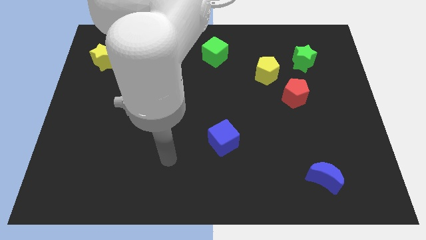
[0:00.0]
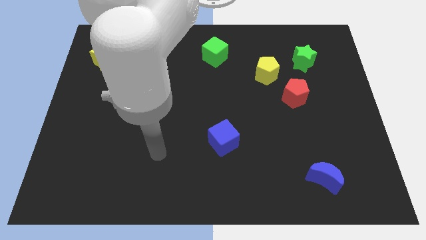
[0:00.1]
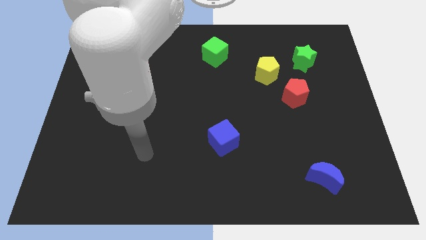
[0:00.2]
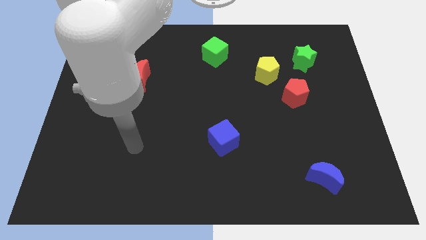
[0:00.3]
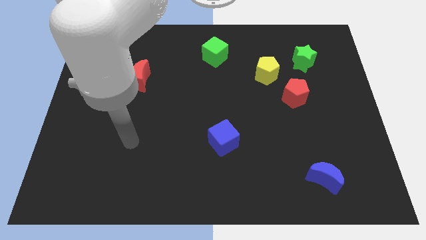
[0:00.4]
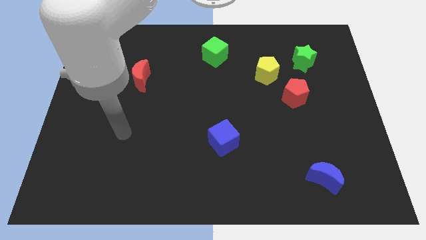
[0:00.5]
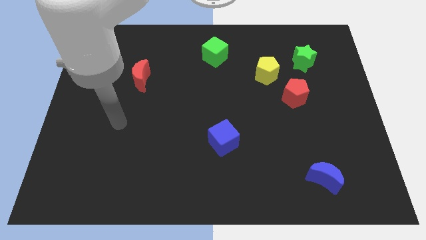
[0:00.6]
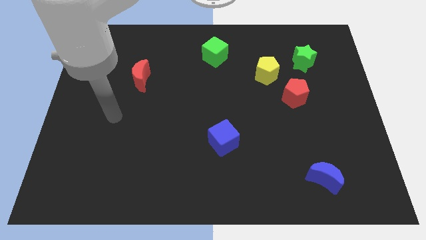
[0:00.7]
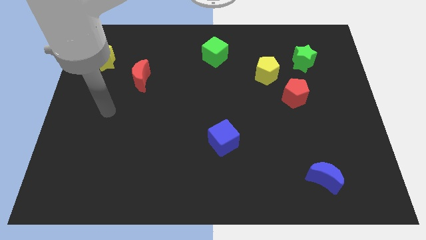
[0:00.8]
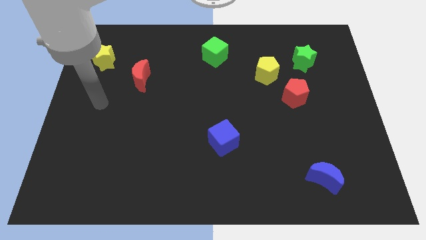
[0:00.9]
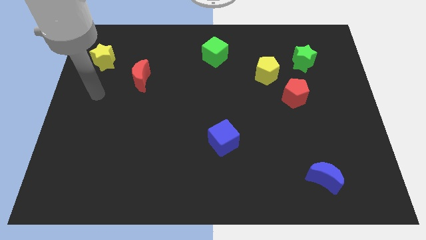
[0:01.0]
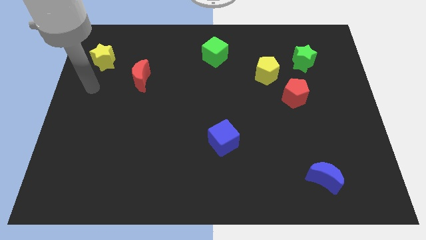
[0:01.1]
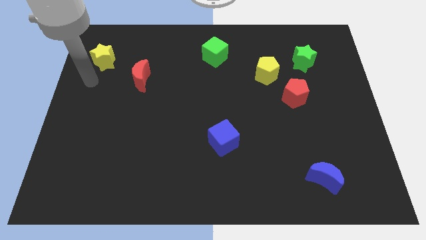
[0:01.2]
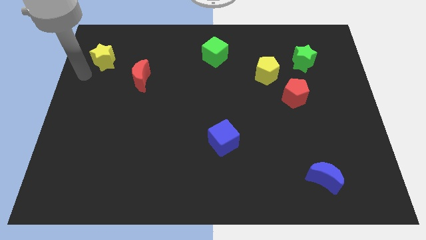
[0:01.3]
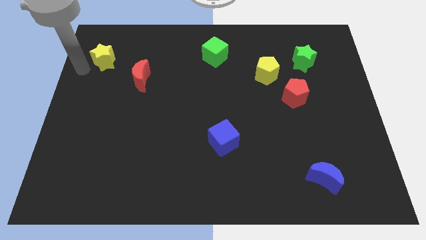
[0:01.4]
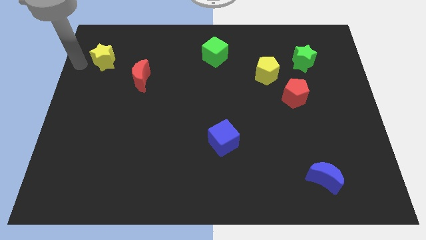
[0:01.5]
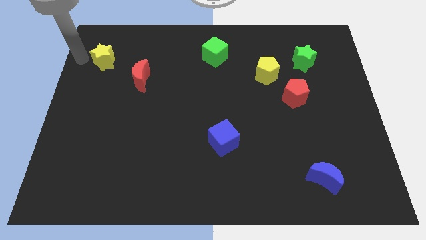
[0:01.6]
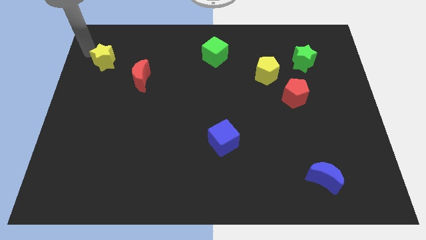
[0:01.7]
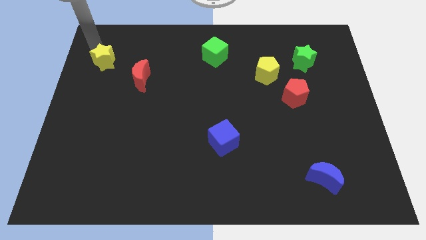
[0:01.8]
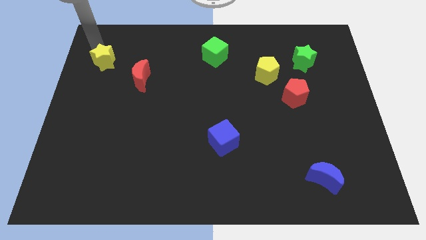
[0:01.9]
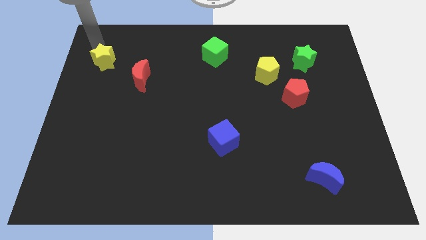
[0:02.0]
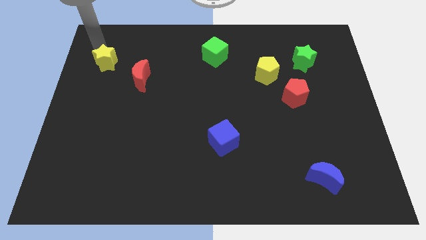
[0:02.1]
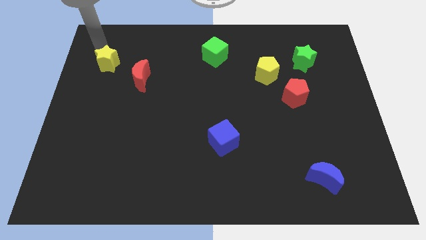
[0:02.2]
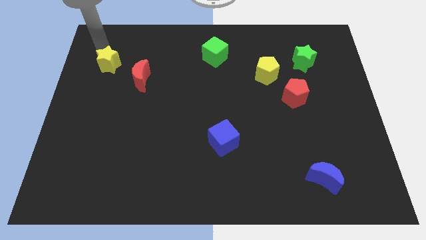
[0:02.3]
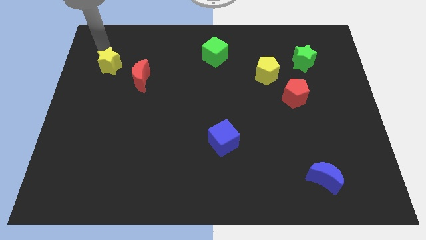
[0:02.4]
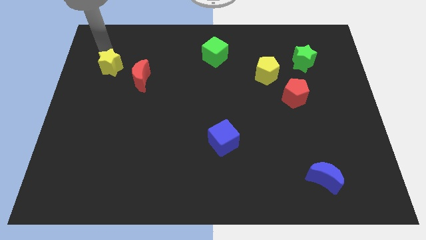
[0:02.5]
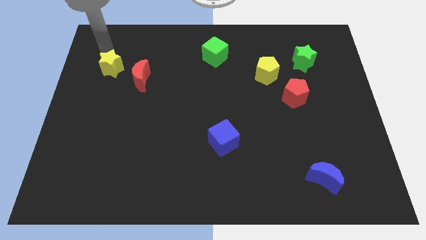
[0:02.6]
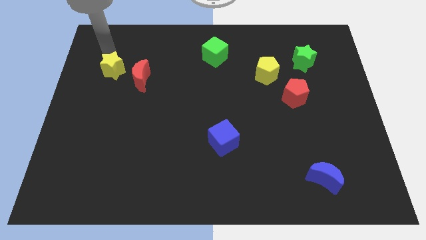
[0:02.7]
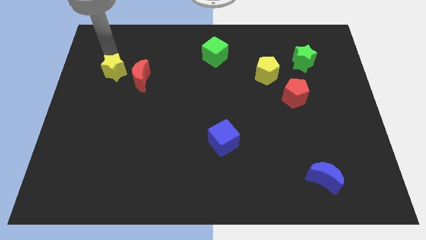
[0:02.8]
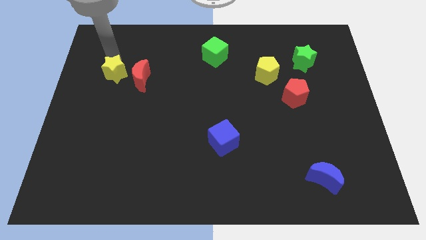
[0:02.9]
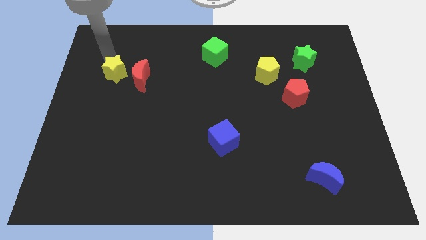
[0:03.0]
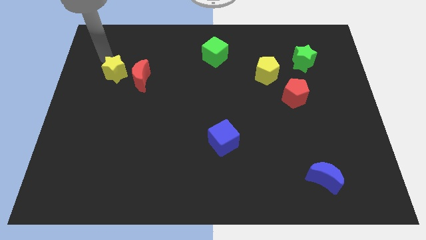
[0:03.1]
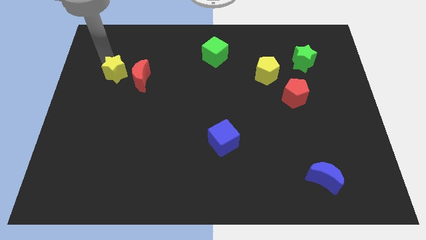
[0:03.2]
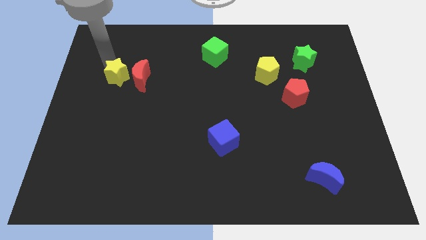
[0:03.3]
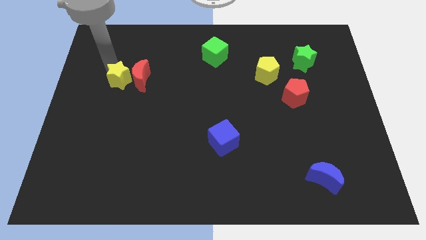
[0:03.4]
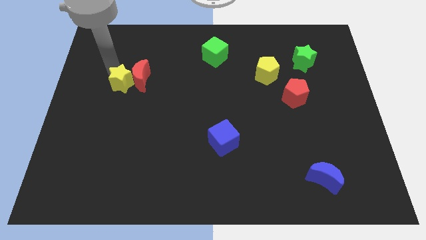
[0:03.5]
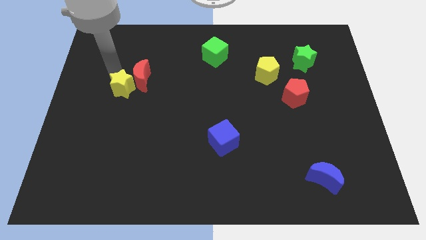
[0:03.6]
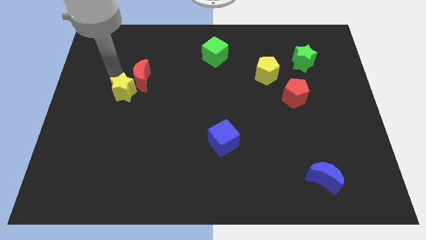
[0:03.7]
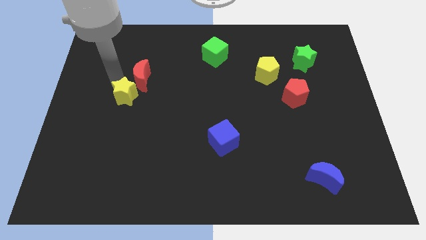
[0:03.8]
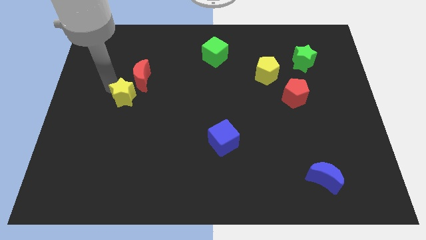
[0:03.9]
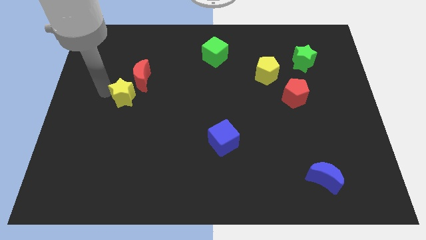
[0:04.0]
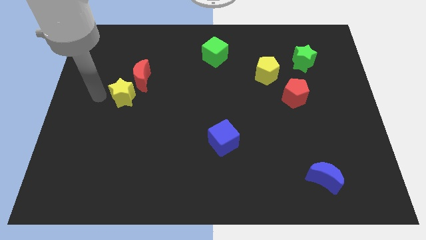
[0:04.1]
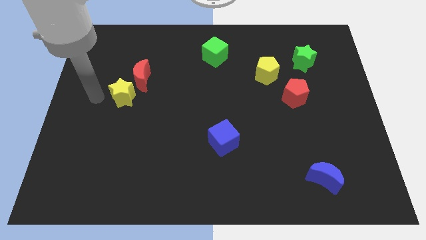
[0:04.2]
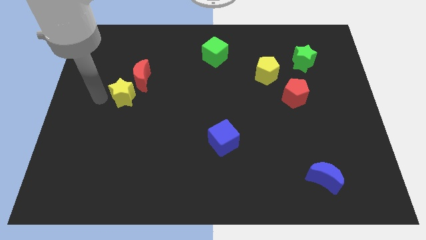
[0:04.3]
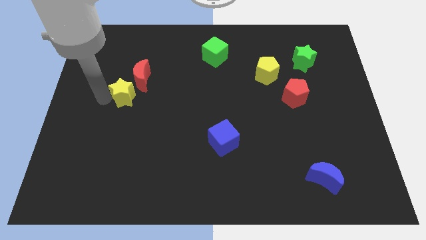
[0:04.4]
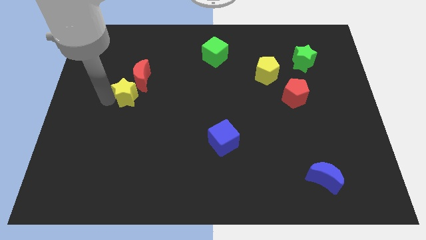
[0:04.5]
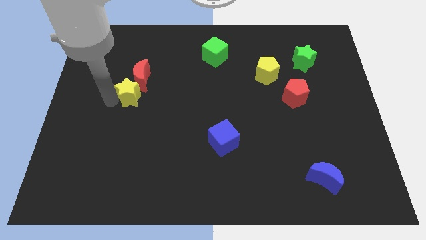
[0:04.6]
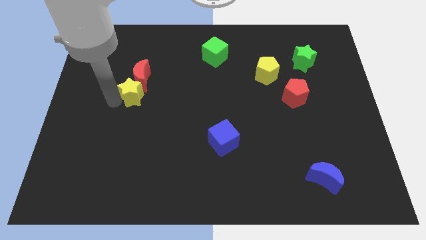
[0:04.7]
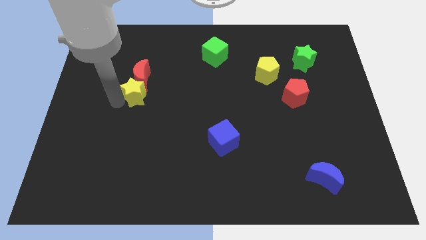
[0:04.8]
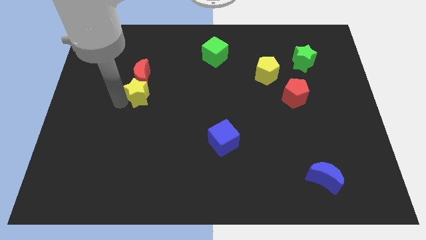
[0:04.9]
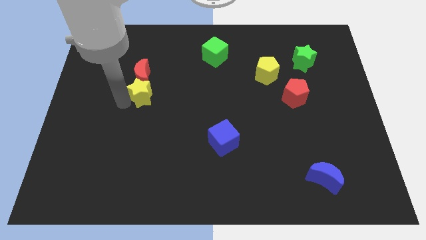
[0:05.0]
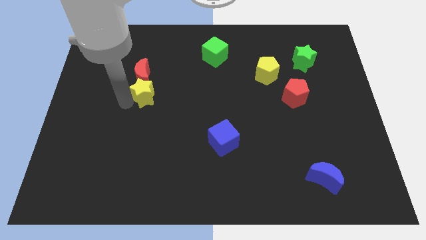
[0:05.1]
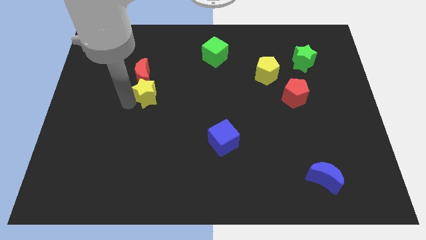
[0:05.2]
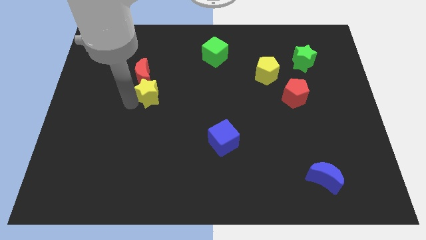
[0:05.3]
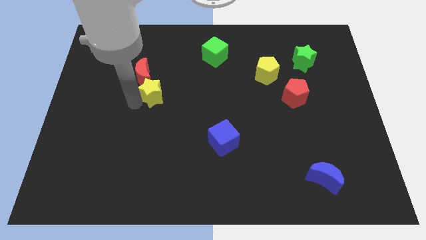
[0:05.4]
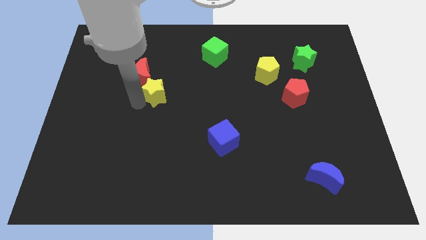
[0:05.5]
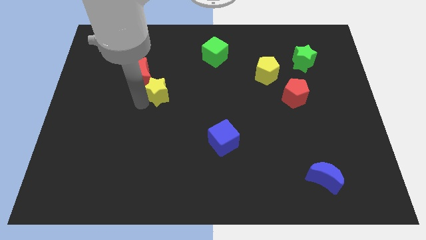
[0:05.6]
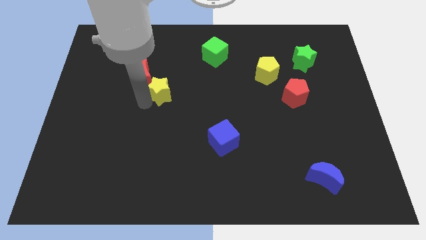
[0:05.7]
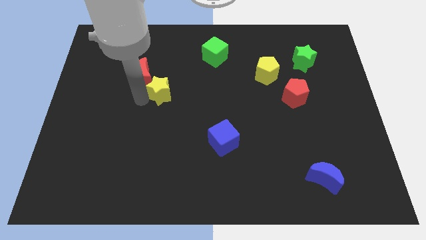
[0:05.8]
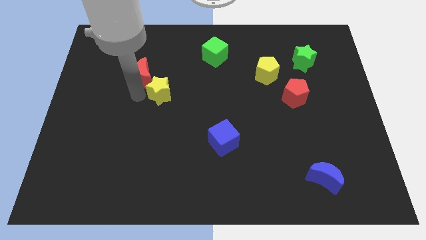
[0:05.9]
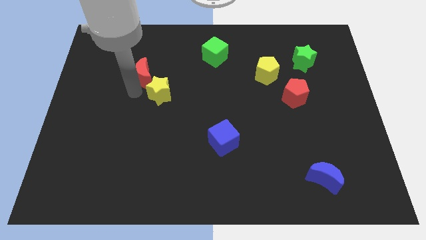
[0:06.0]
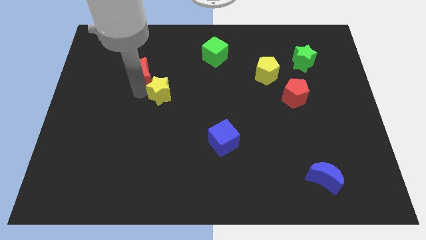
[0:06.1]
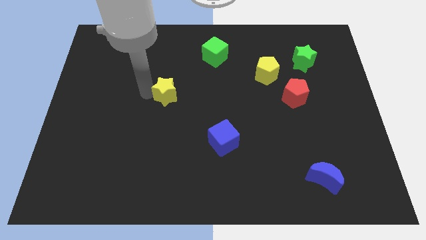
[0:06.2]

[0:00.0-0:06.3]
push the yellow star to the middle

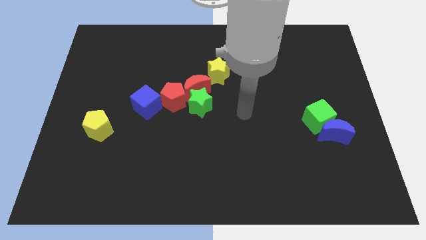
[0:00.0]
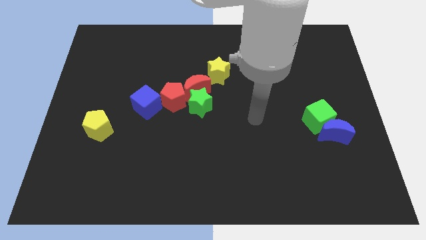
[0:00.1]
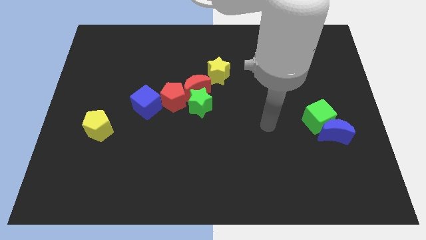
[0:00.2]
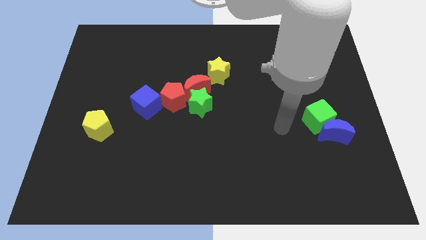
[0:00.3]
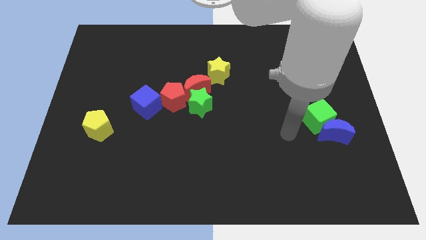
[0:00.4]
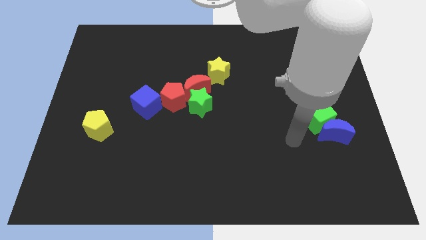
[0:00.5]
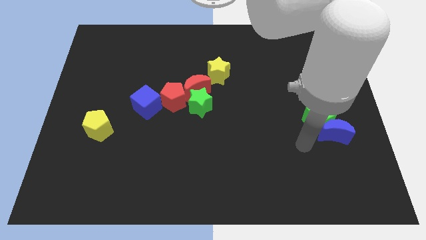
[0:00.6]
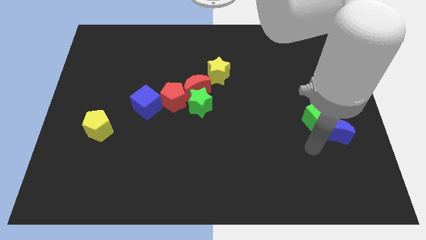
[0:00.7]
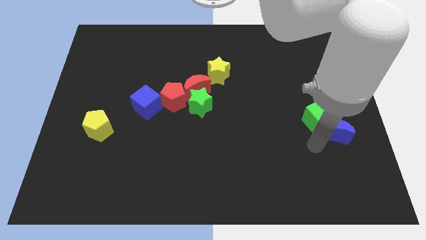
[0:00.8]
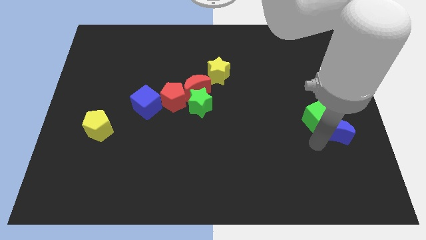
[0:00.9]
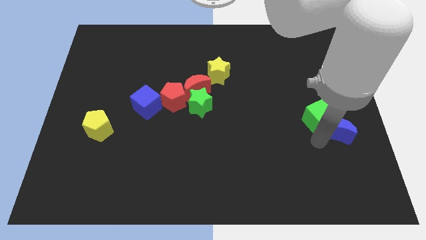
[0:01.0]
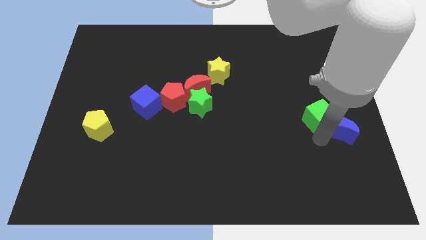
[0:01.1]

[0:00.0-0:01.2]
move the blue moon to the right side of the board
